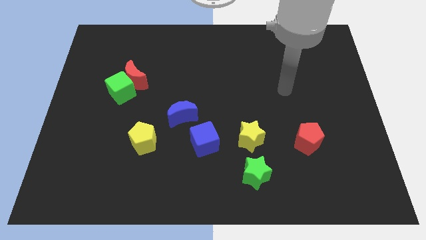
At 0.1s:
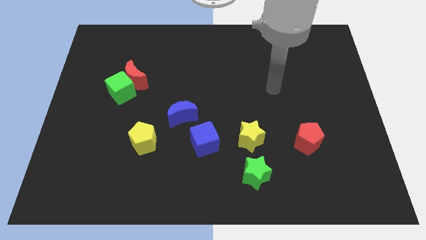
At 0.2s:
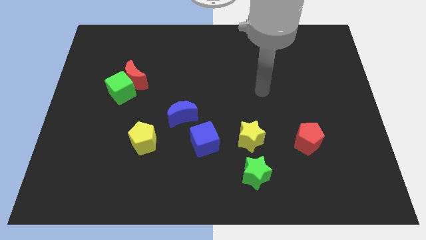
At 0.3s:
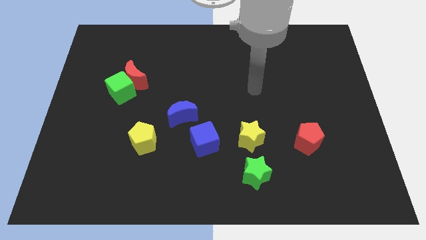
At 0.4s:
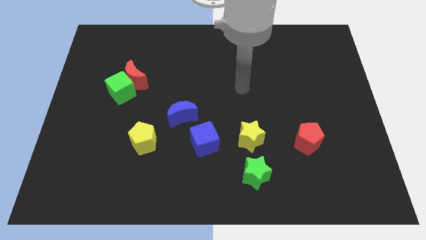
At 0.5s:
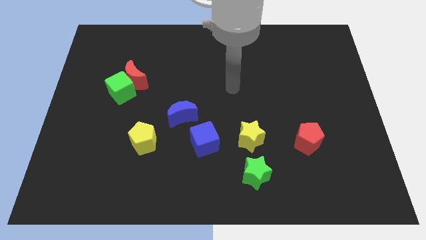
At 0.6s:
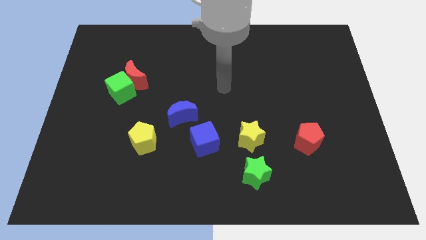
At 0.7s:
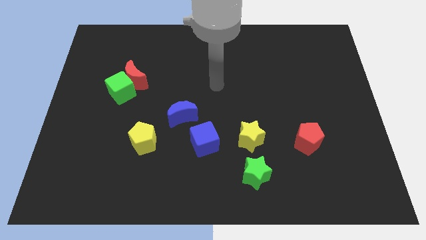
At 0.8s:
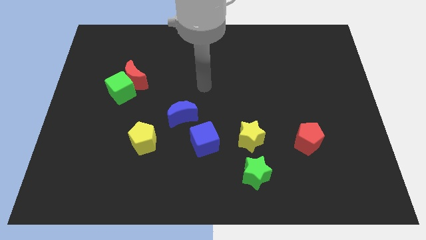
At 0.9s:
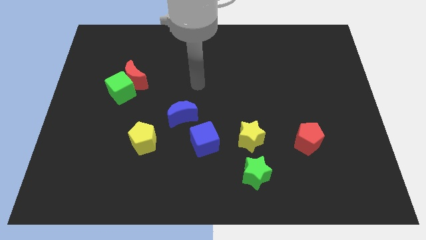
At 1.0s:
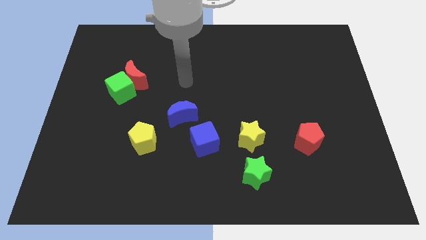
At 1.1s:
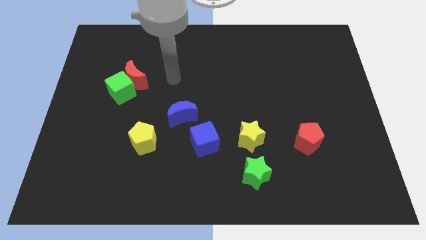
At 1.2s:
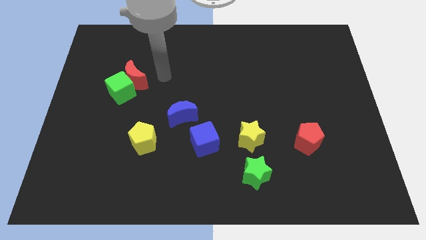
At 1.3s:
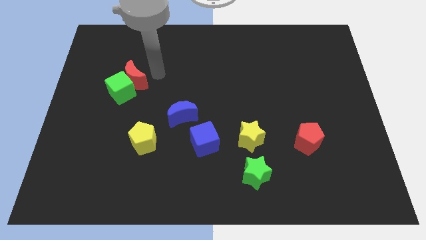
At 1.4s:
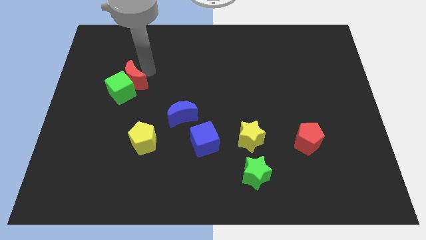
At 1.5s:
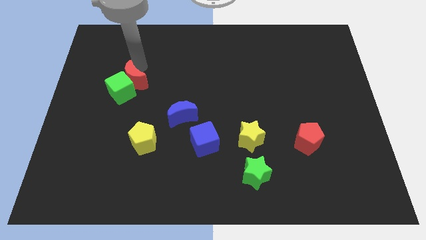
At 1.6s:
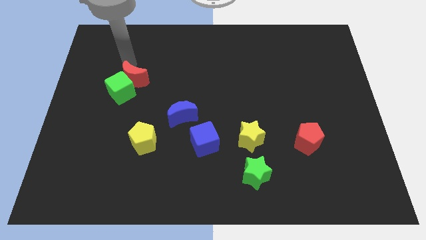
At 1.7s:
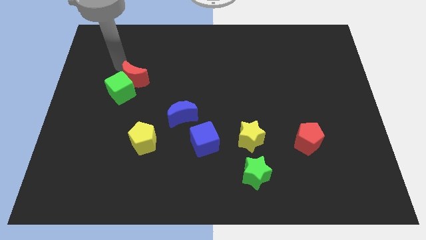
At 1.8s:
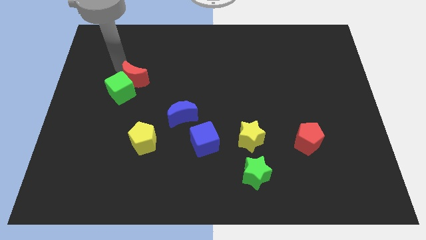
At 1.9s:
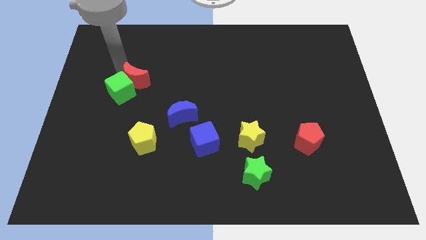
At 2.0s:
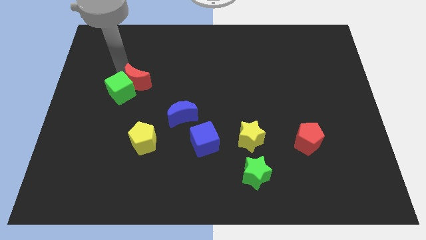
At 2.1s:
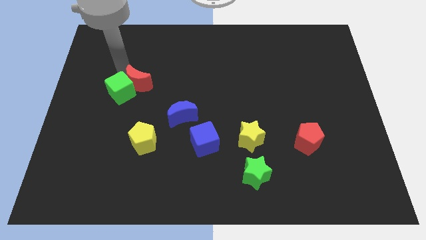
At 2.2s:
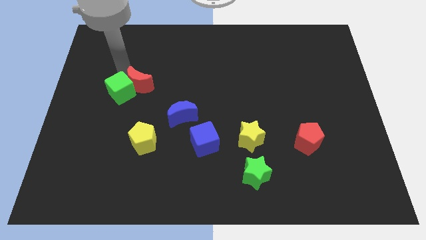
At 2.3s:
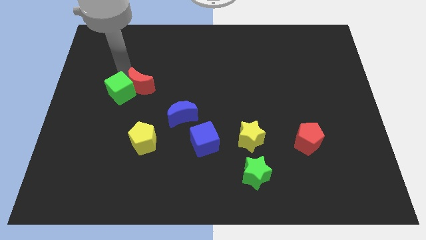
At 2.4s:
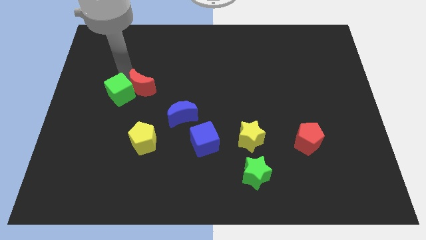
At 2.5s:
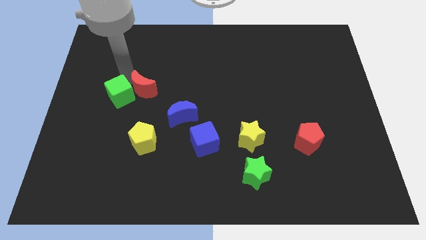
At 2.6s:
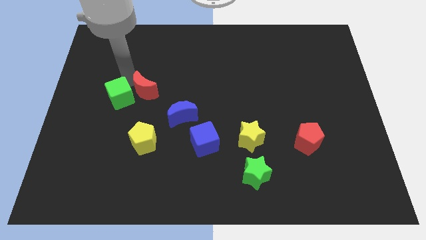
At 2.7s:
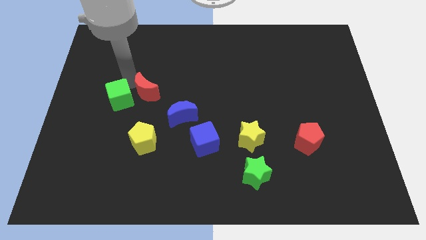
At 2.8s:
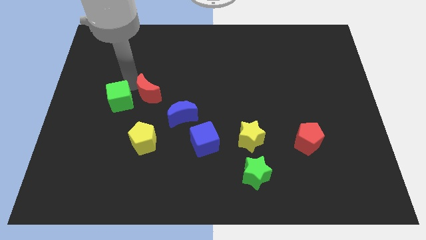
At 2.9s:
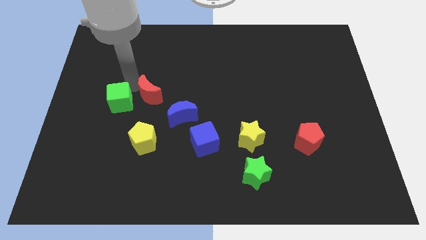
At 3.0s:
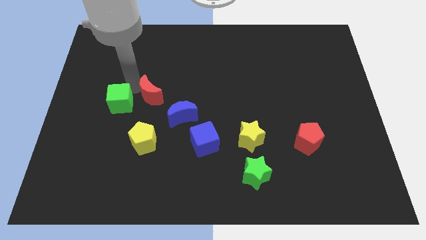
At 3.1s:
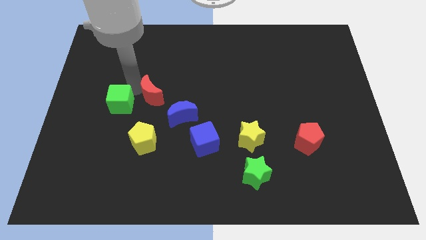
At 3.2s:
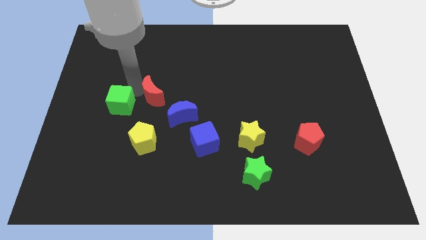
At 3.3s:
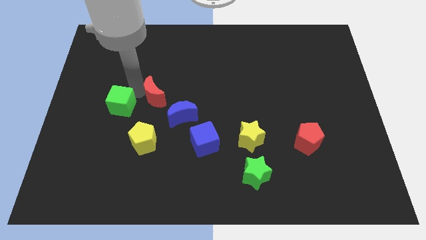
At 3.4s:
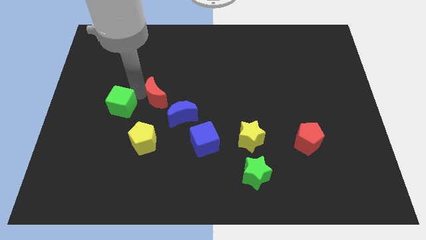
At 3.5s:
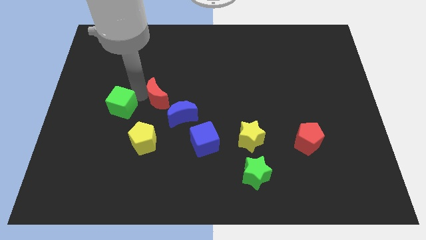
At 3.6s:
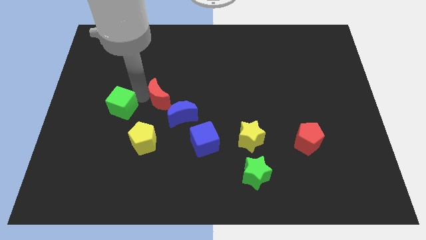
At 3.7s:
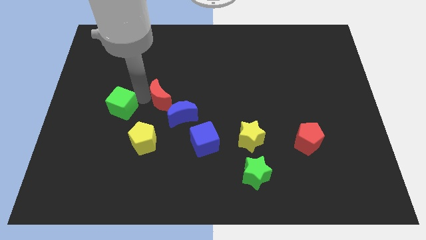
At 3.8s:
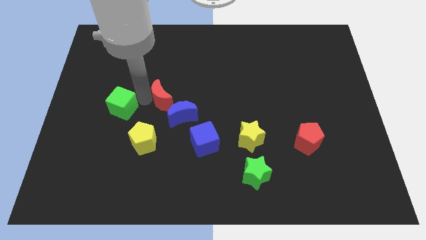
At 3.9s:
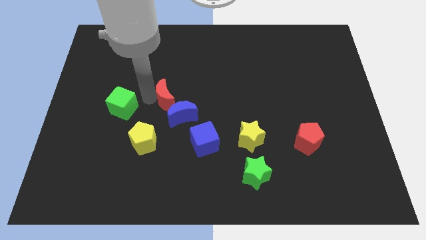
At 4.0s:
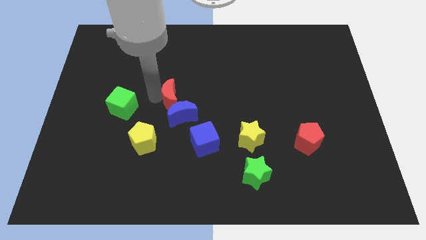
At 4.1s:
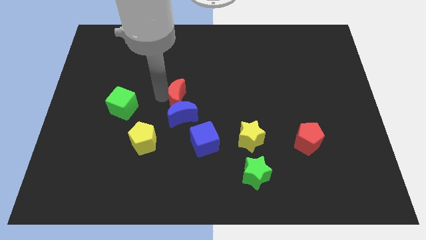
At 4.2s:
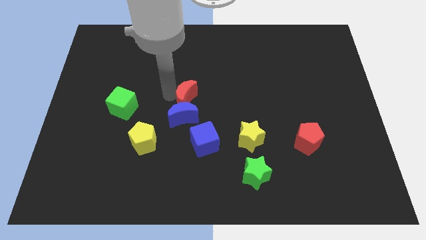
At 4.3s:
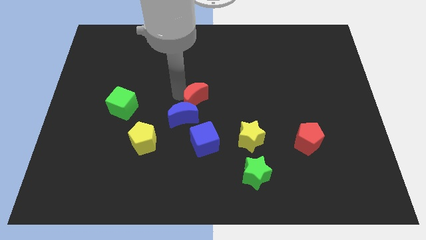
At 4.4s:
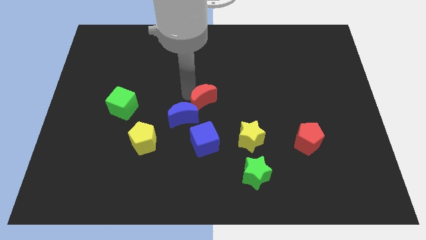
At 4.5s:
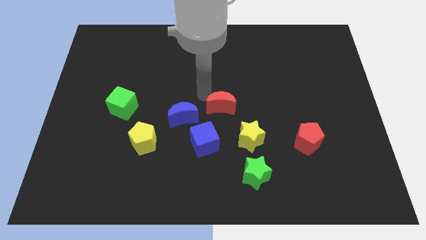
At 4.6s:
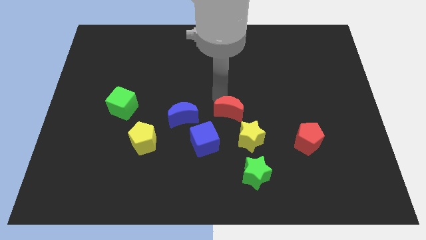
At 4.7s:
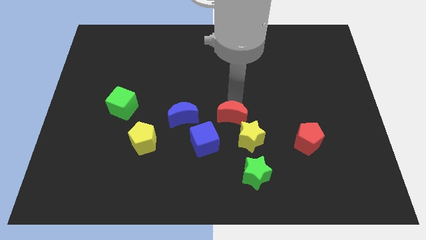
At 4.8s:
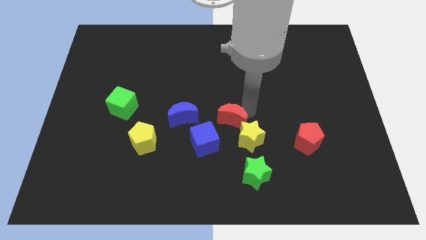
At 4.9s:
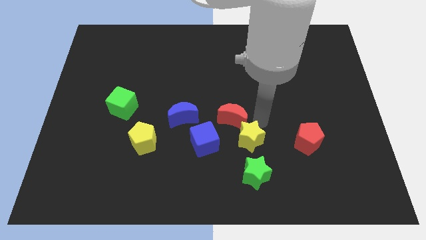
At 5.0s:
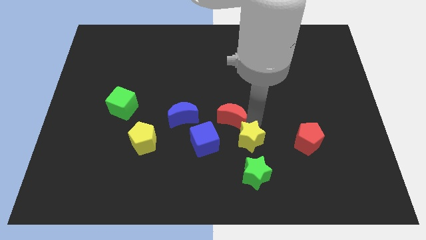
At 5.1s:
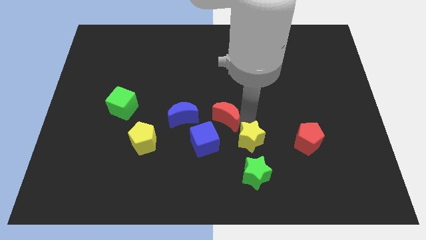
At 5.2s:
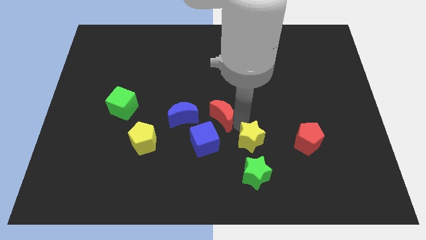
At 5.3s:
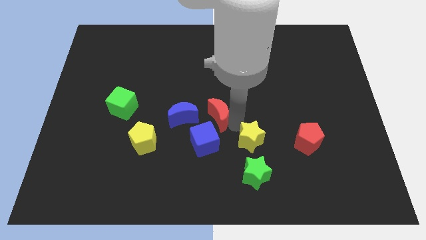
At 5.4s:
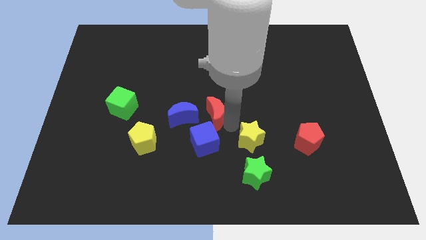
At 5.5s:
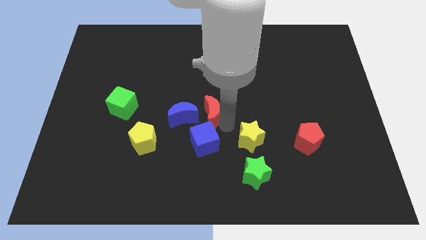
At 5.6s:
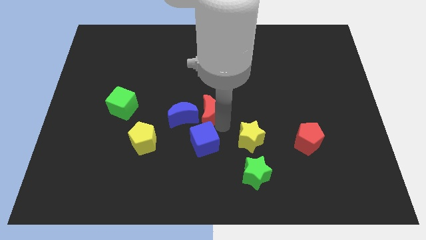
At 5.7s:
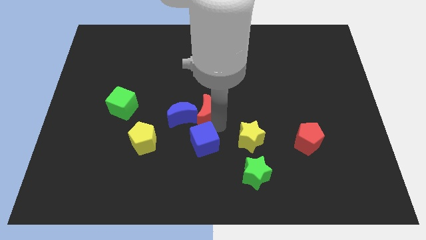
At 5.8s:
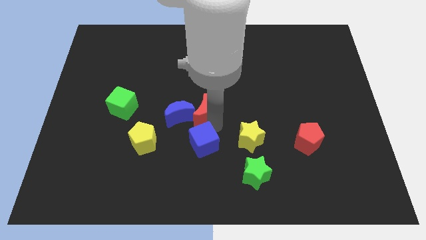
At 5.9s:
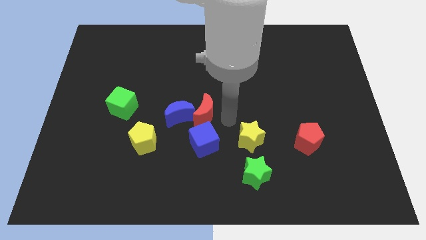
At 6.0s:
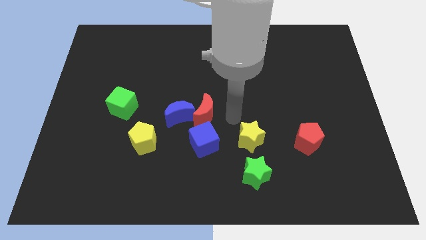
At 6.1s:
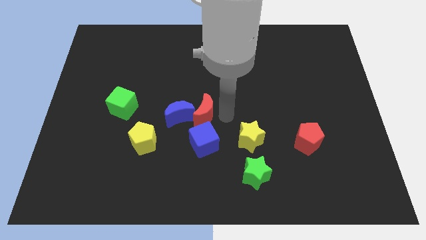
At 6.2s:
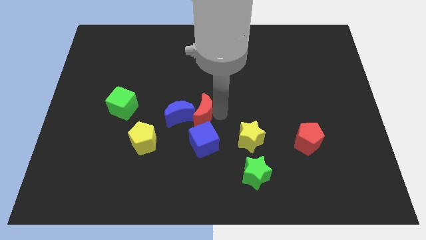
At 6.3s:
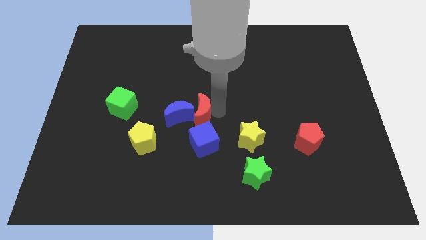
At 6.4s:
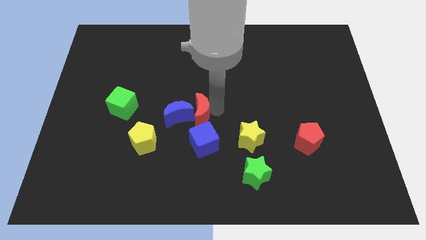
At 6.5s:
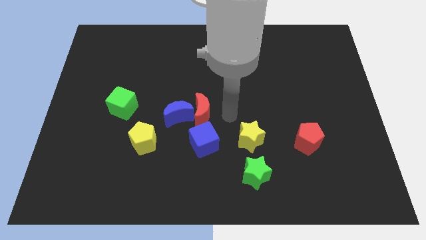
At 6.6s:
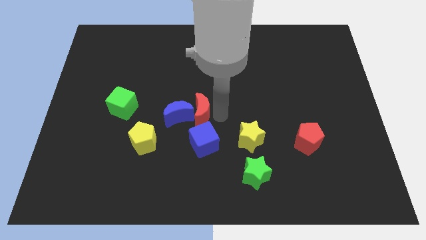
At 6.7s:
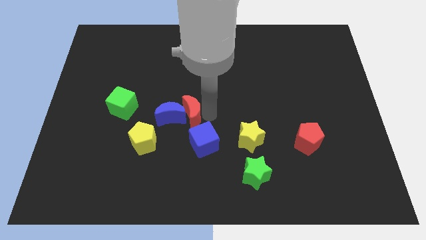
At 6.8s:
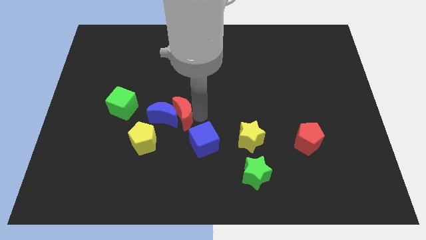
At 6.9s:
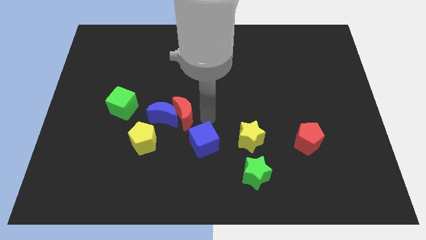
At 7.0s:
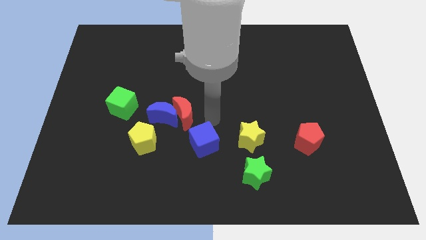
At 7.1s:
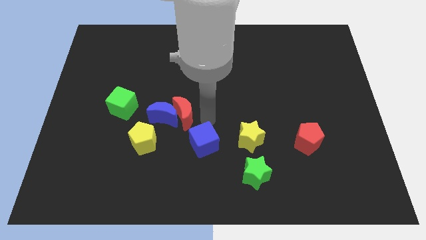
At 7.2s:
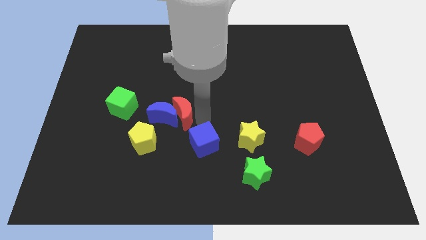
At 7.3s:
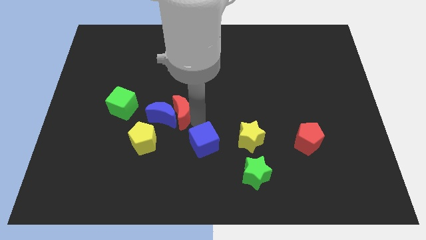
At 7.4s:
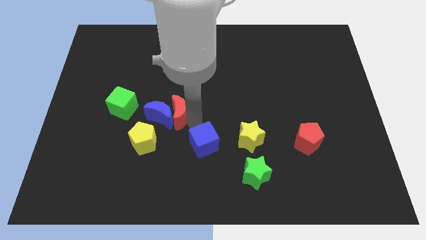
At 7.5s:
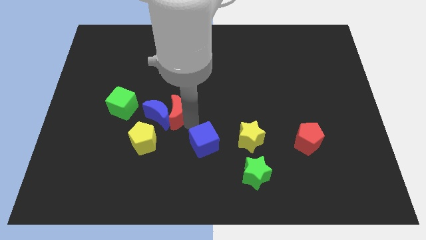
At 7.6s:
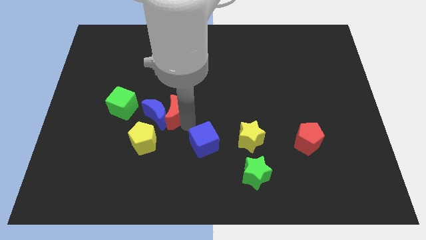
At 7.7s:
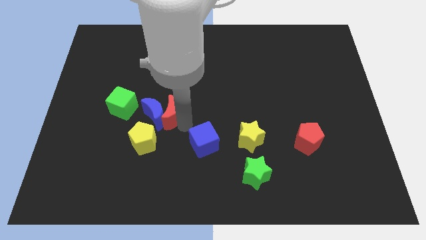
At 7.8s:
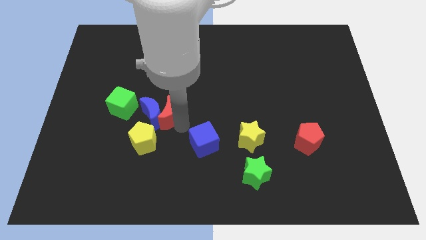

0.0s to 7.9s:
push the red moon down a bit

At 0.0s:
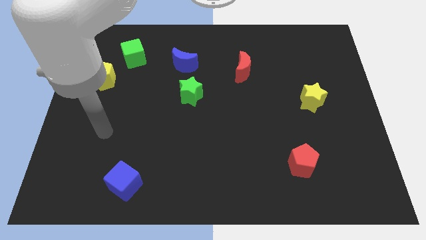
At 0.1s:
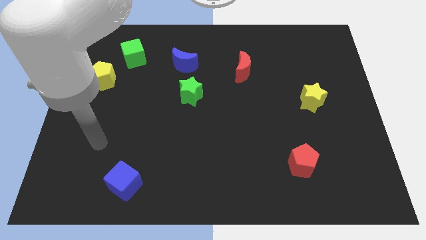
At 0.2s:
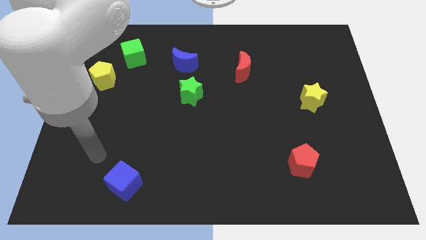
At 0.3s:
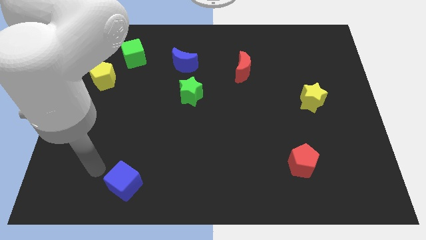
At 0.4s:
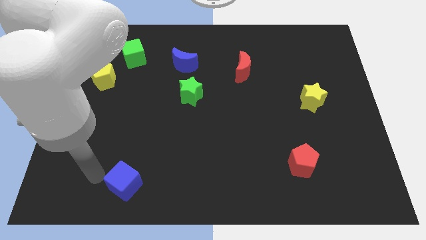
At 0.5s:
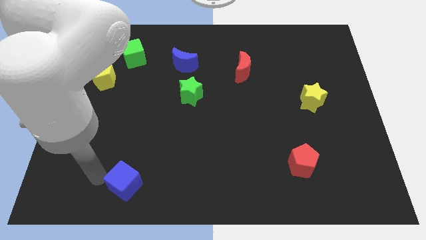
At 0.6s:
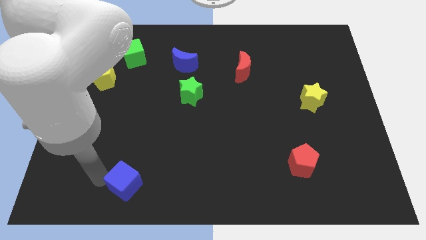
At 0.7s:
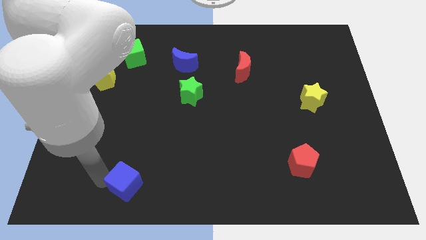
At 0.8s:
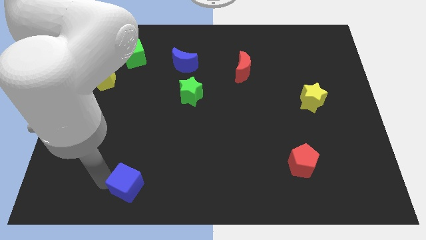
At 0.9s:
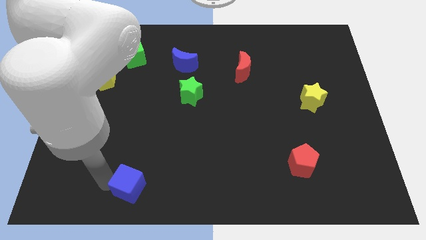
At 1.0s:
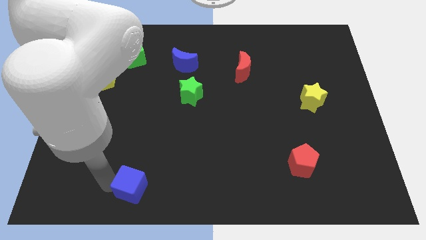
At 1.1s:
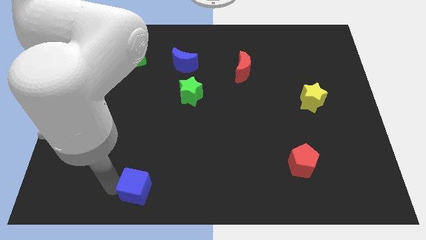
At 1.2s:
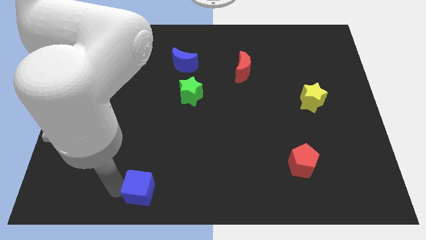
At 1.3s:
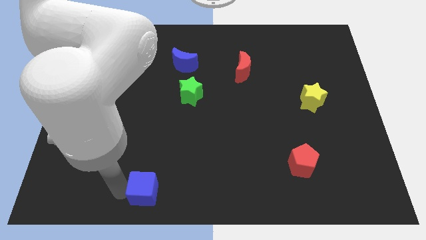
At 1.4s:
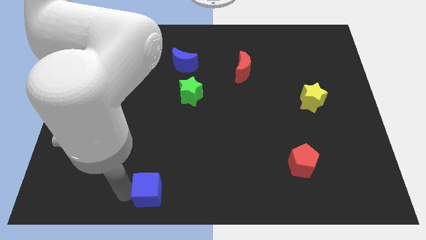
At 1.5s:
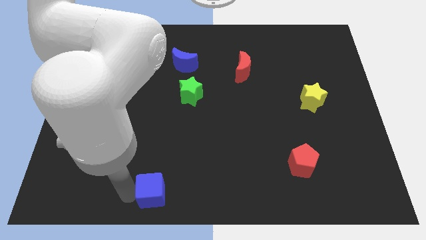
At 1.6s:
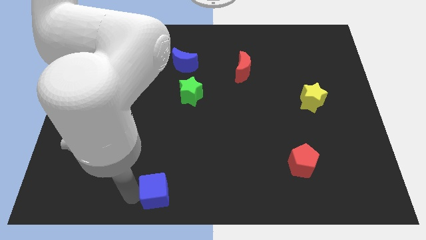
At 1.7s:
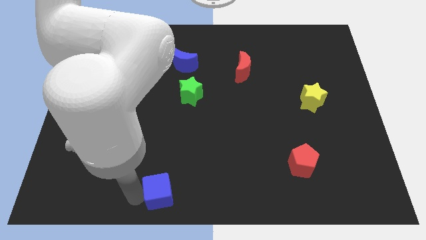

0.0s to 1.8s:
move the blue cube a little bit right
